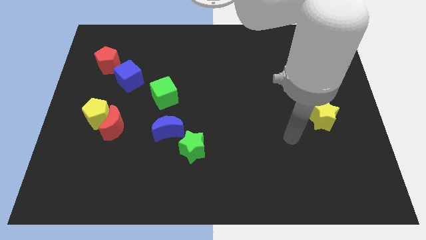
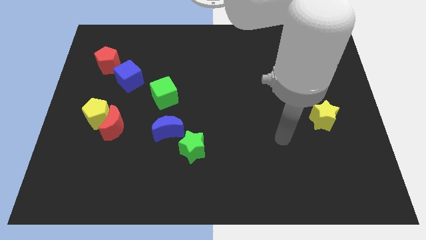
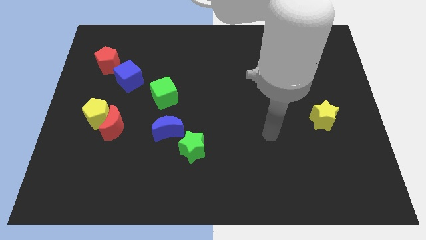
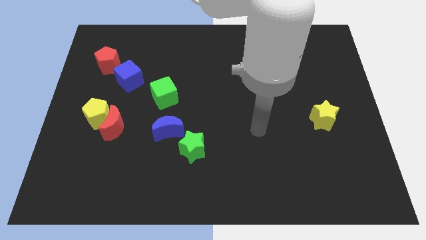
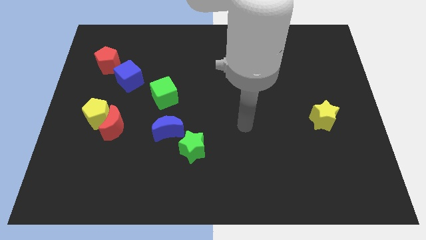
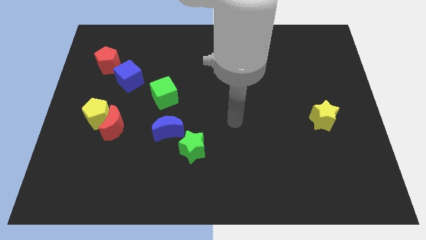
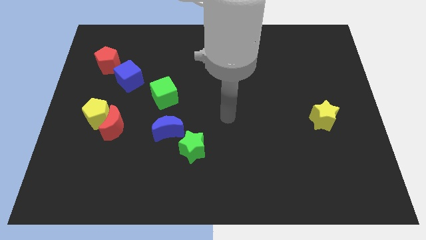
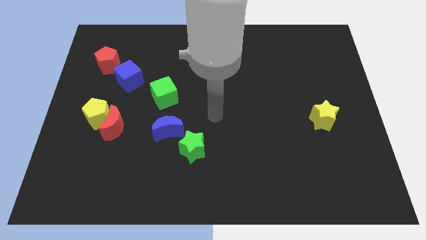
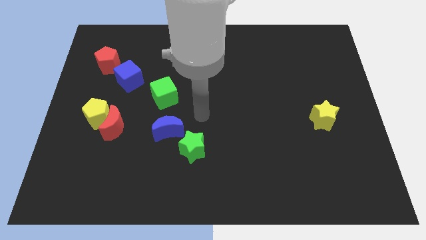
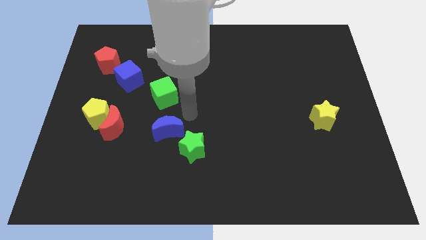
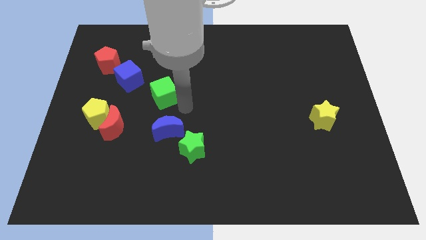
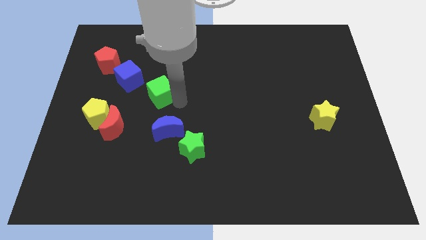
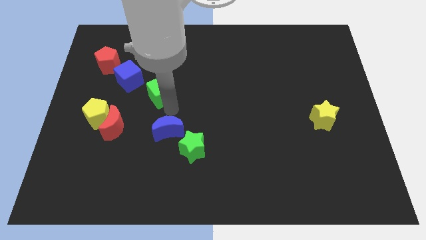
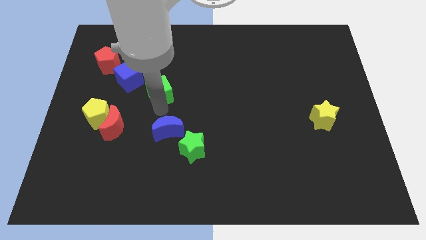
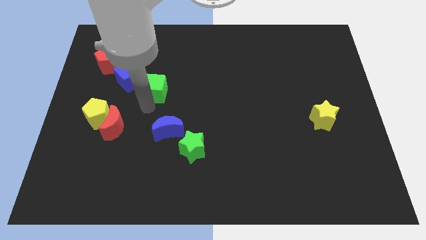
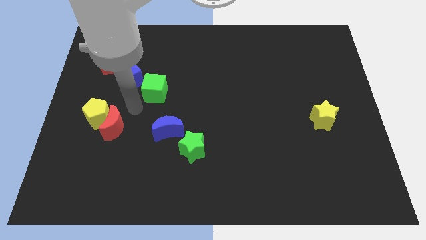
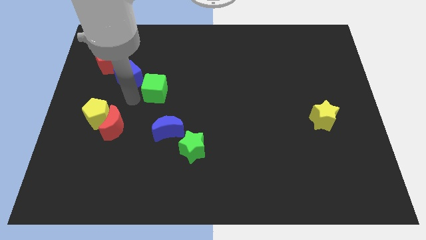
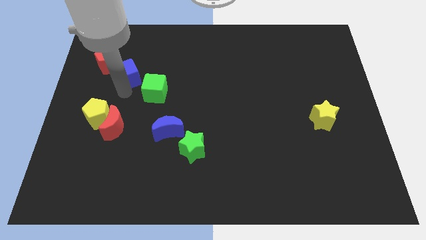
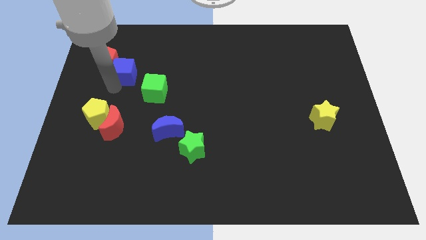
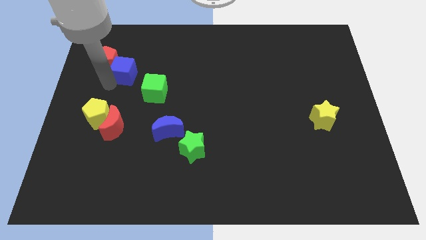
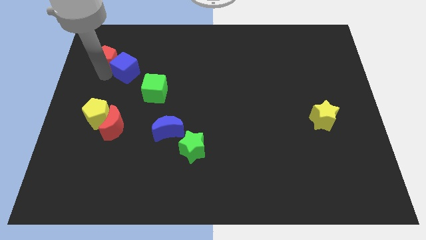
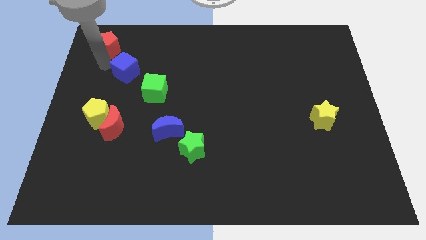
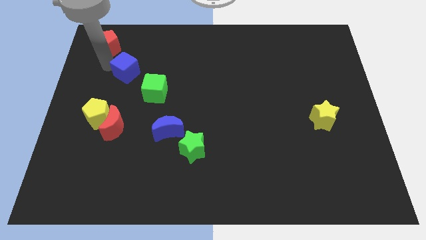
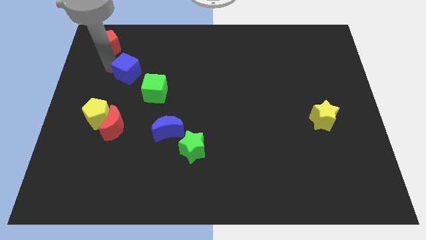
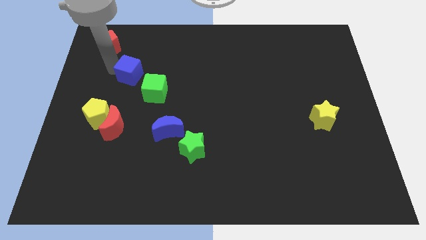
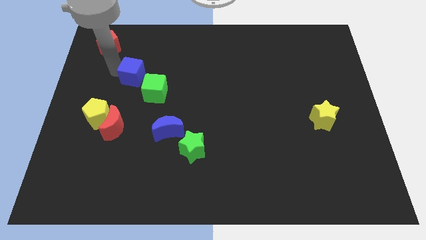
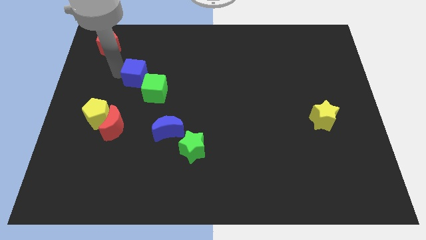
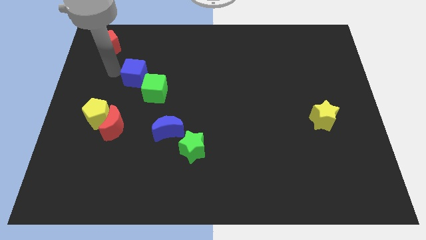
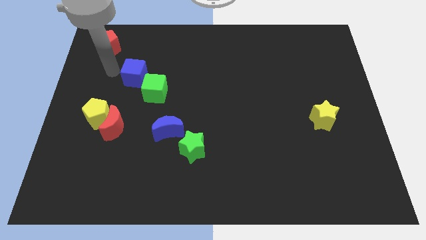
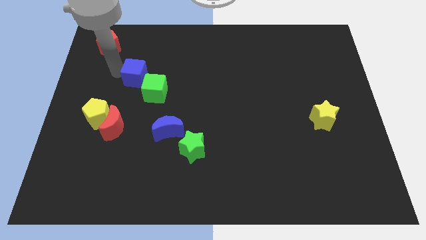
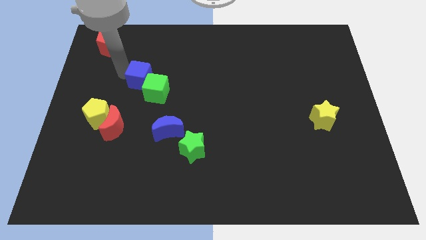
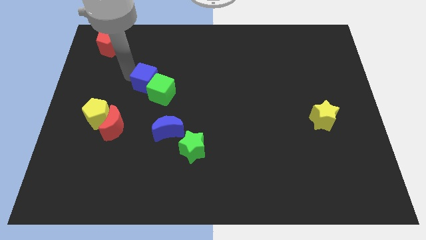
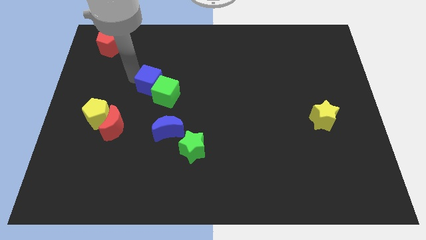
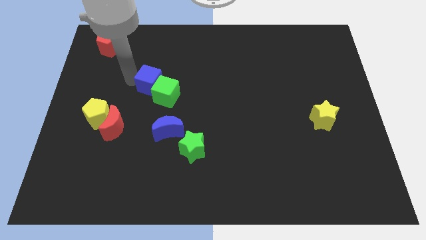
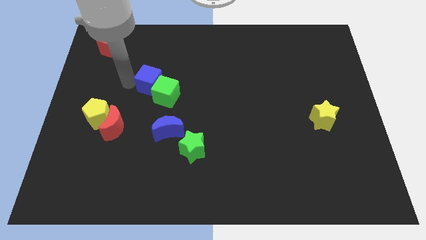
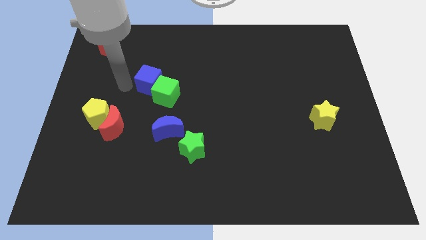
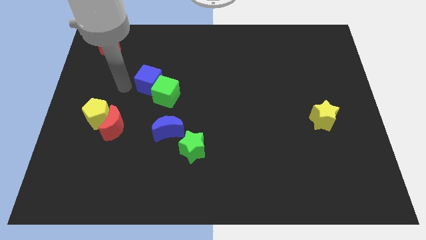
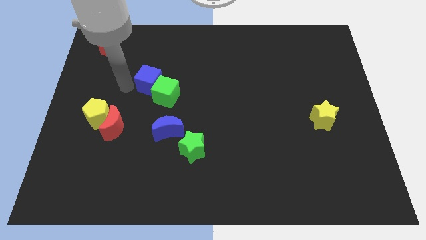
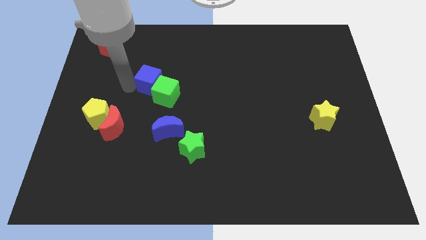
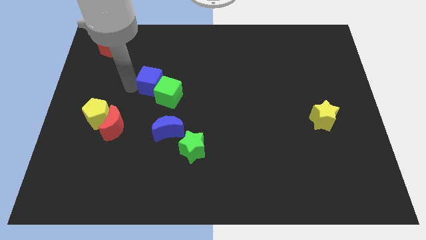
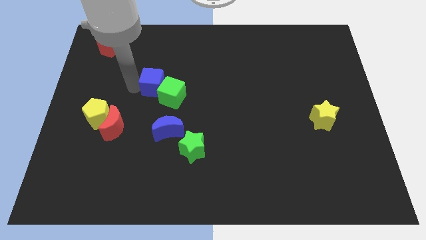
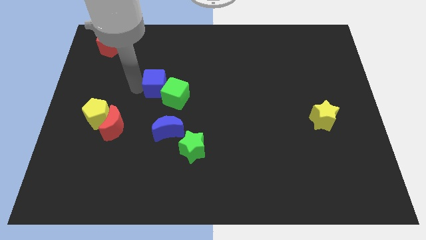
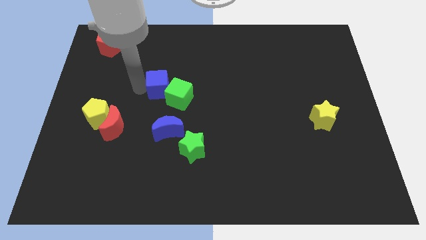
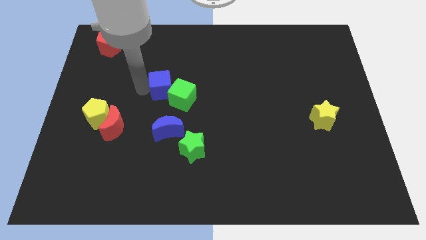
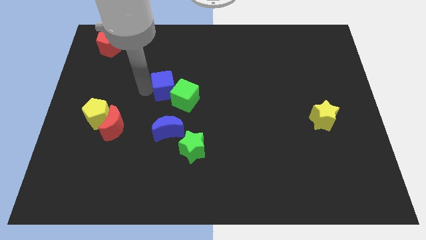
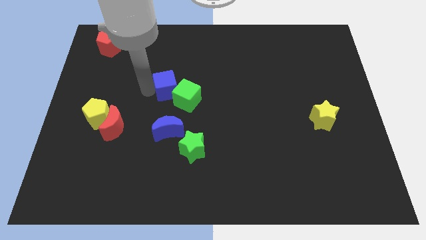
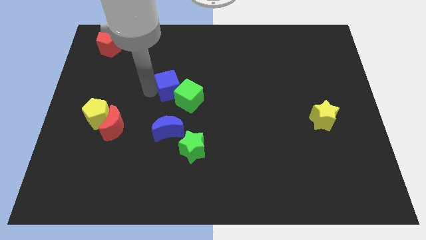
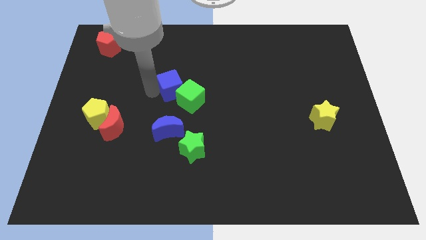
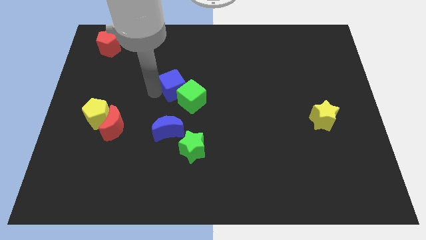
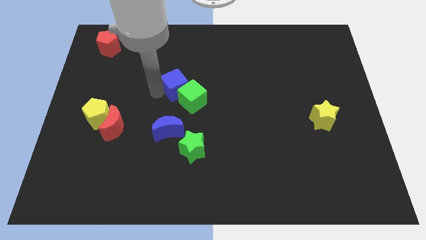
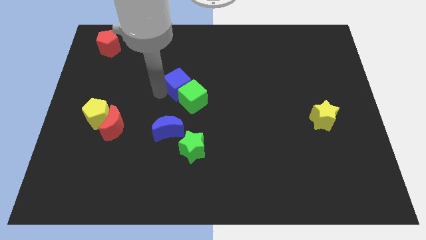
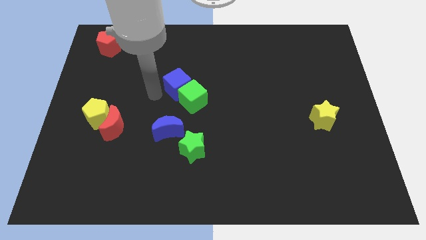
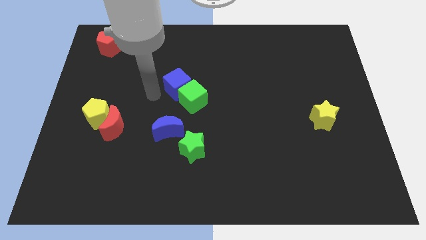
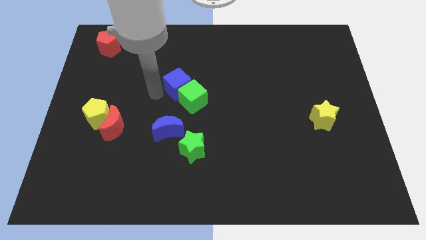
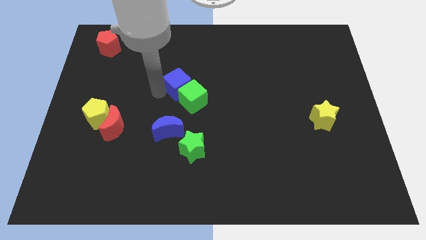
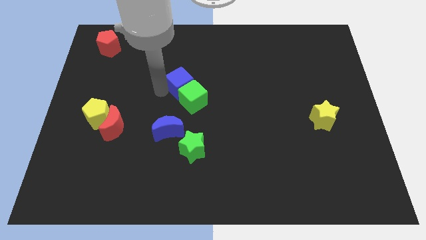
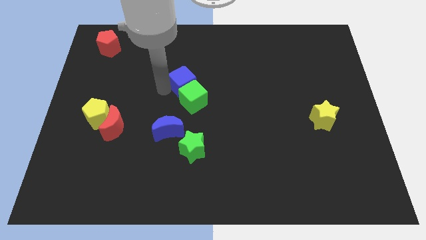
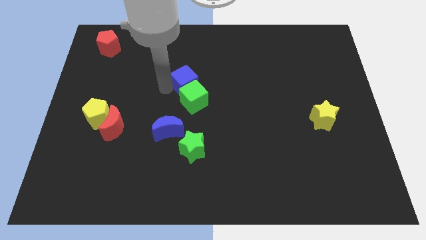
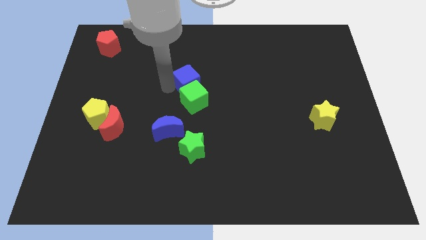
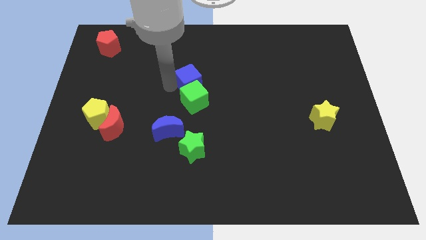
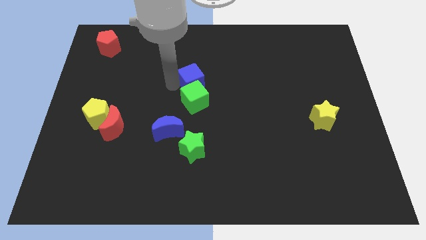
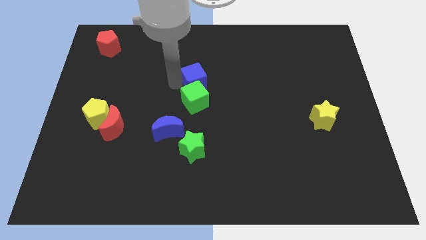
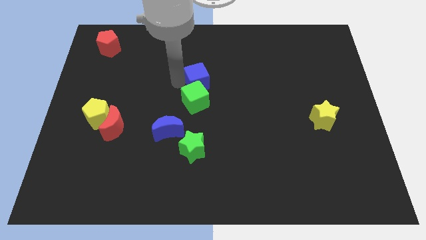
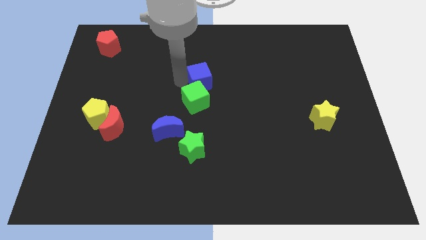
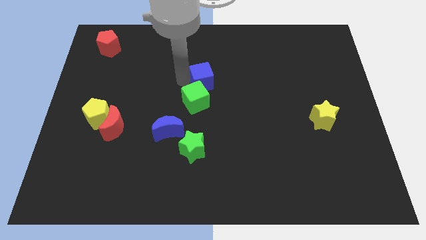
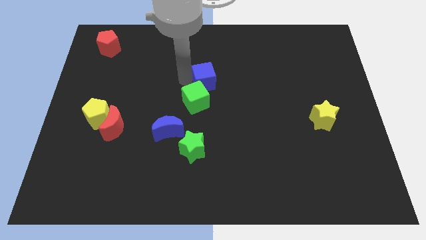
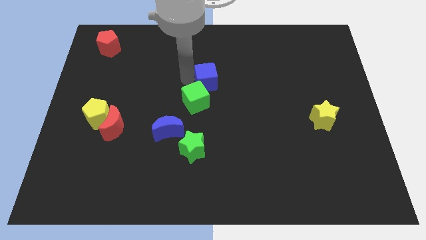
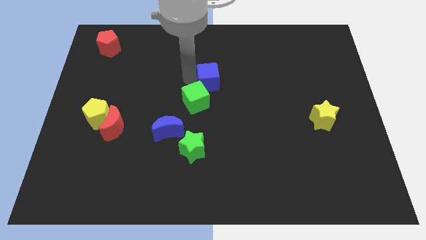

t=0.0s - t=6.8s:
push the blue cube right

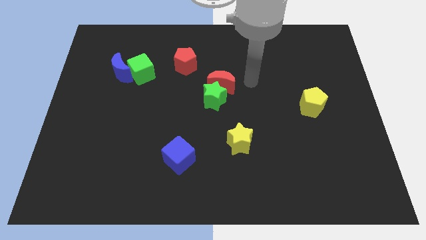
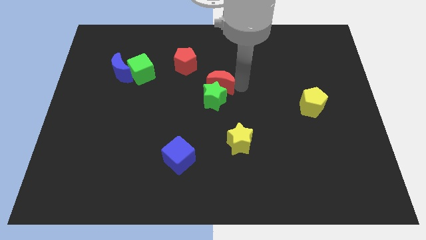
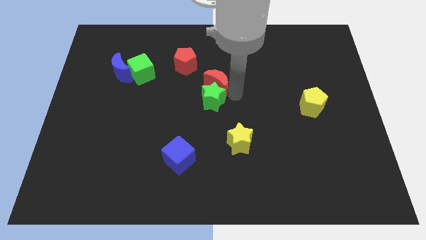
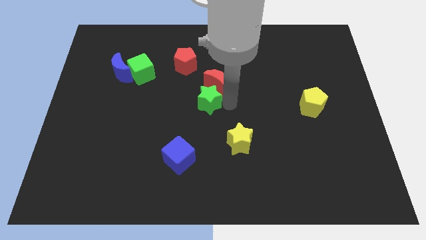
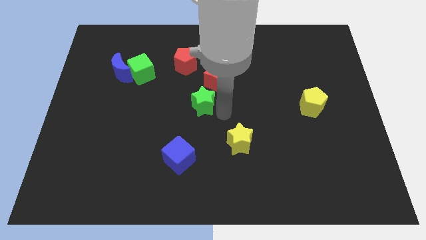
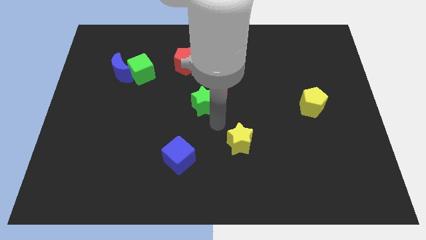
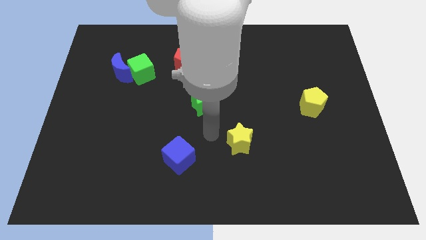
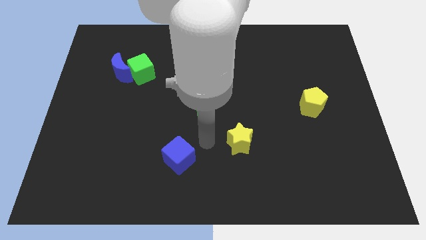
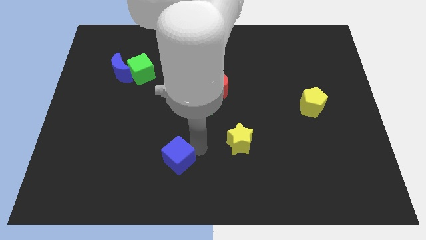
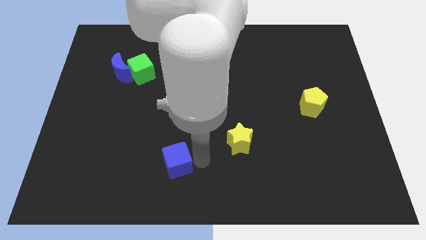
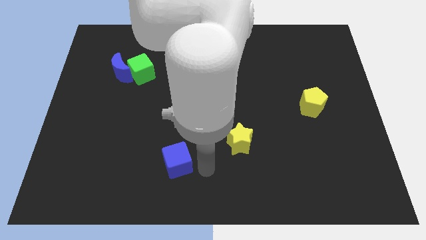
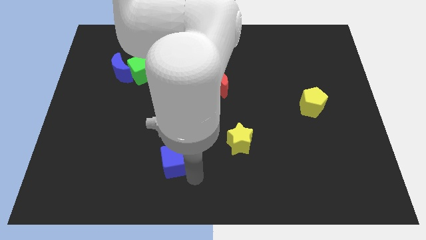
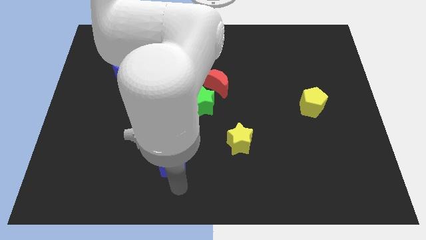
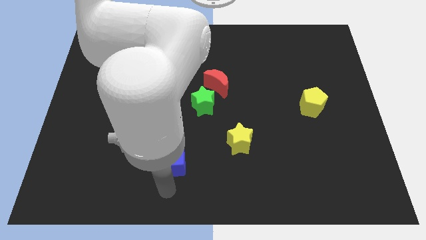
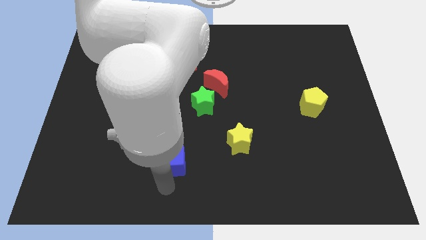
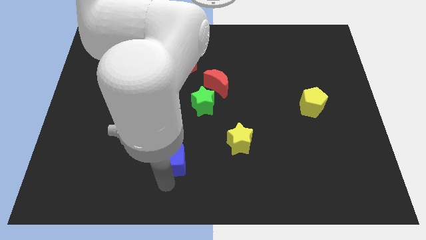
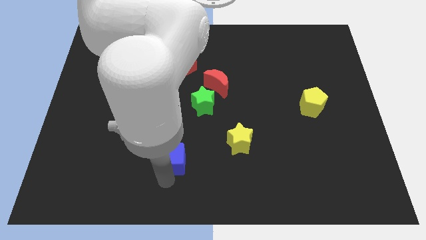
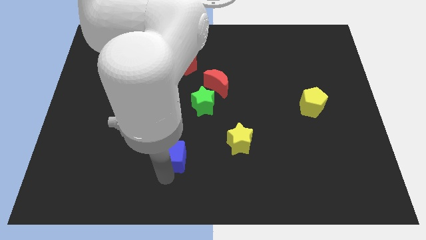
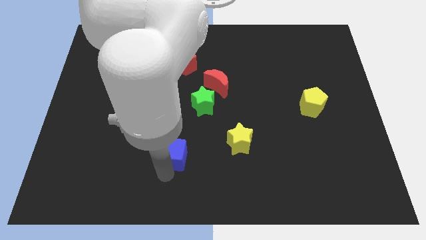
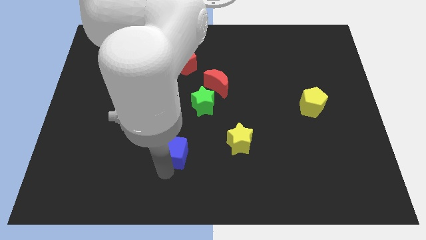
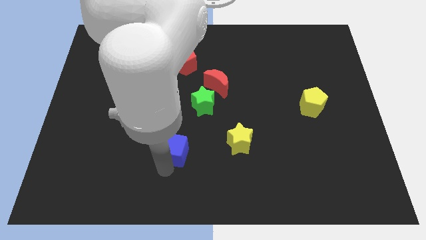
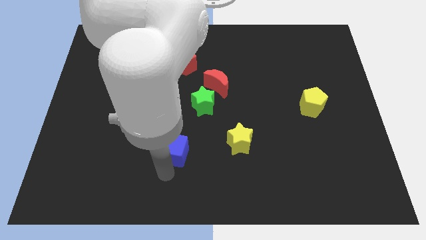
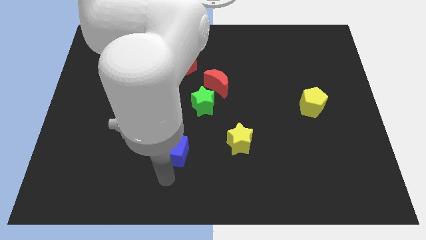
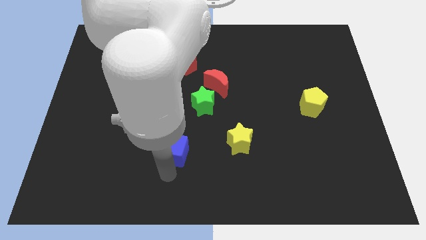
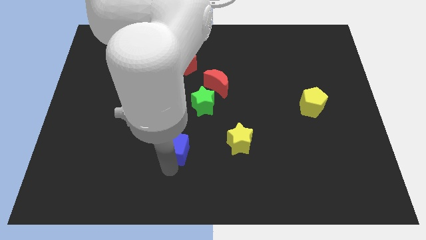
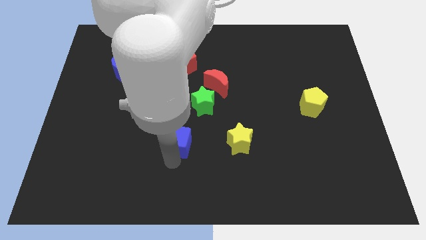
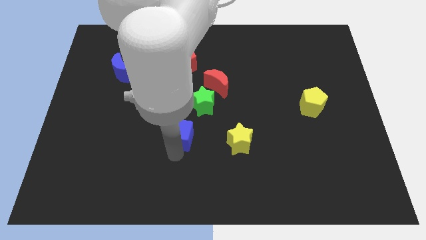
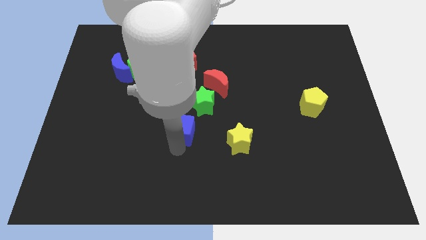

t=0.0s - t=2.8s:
slightly push the blue cube up
